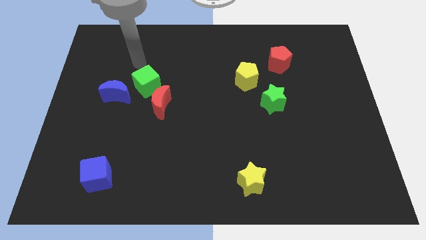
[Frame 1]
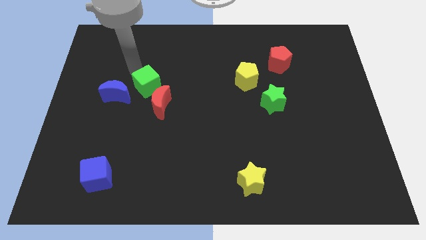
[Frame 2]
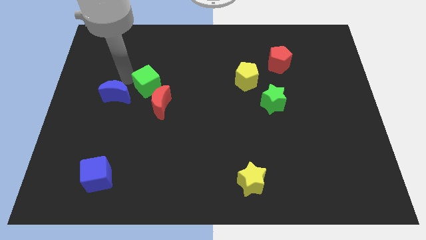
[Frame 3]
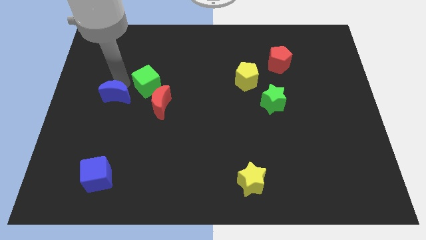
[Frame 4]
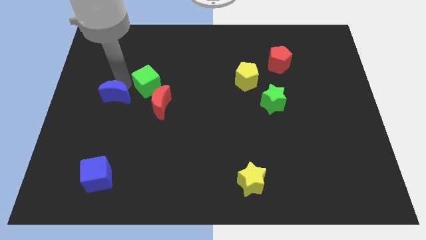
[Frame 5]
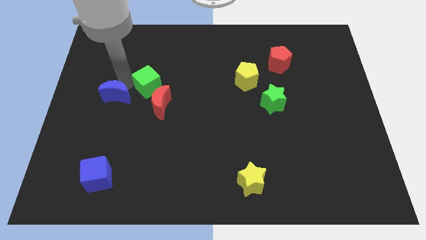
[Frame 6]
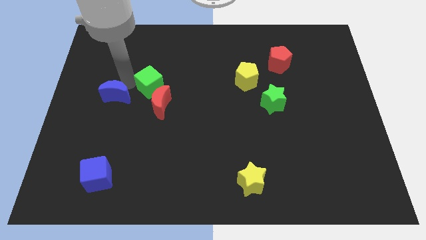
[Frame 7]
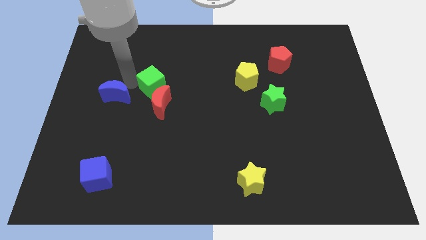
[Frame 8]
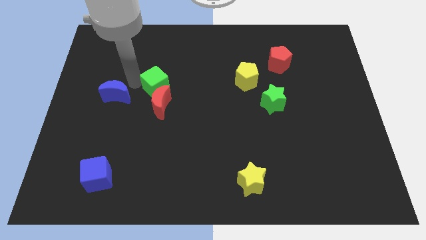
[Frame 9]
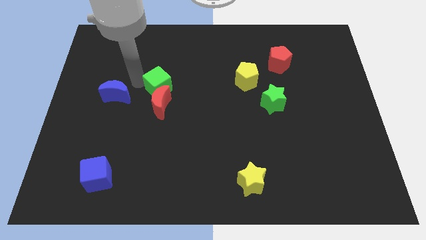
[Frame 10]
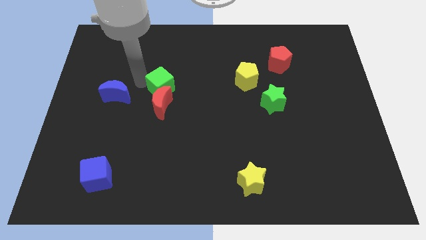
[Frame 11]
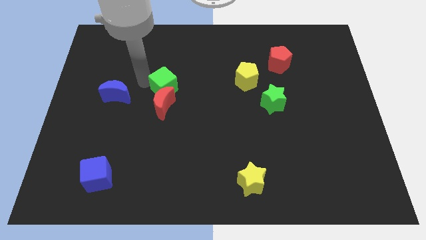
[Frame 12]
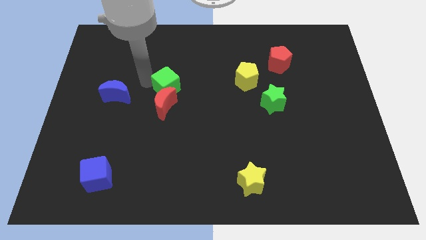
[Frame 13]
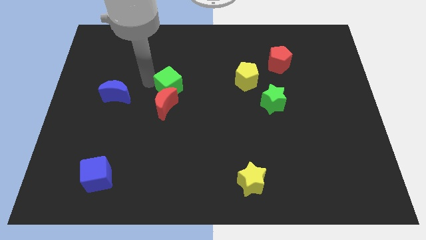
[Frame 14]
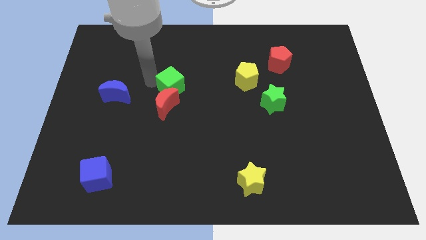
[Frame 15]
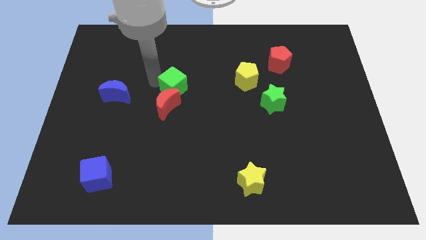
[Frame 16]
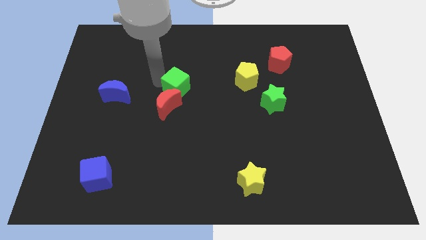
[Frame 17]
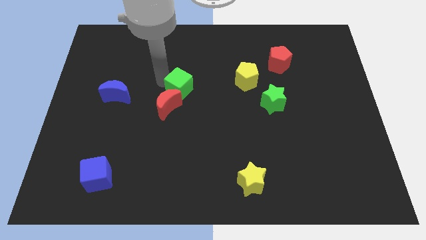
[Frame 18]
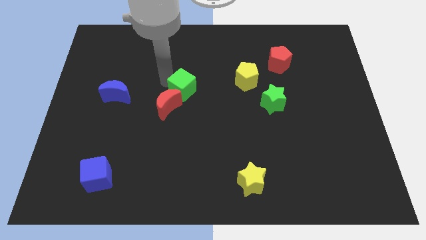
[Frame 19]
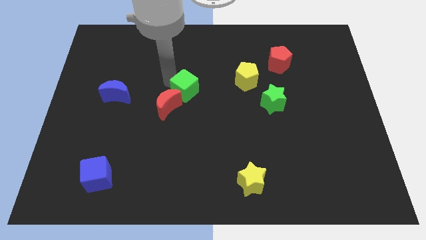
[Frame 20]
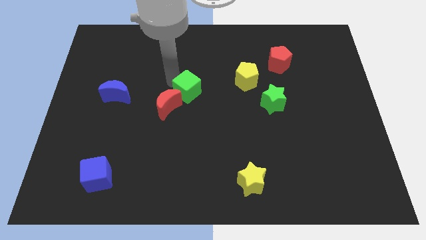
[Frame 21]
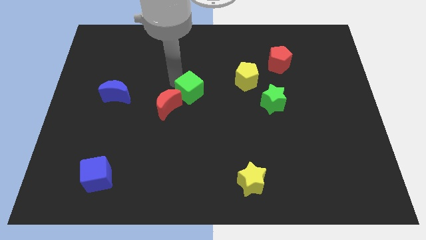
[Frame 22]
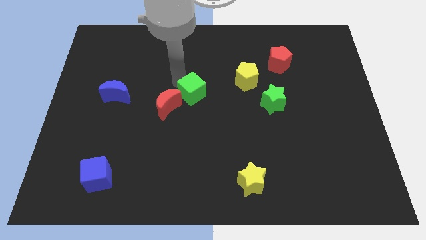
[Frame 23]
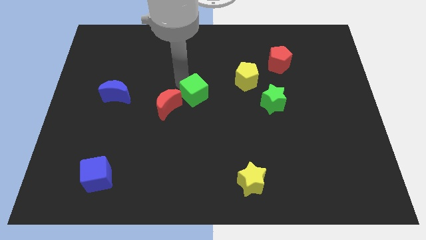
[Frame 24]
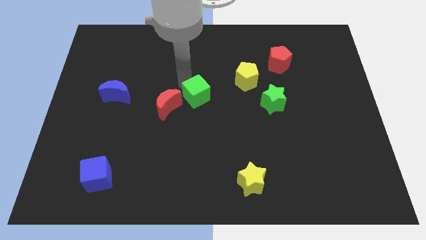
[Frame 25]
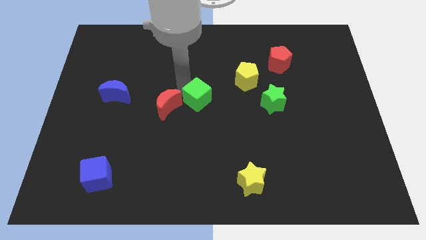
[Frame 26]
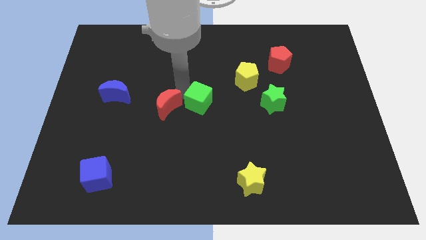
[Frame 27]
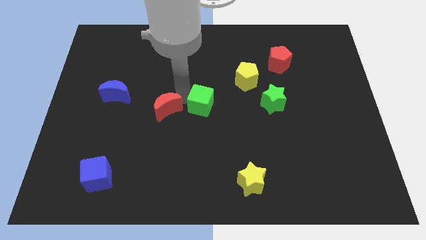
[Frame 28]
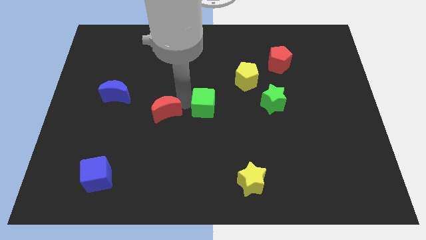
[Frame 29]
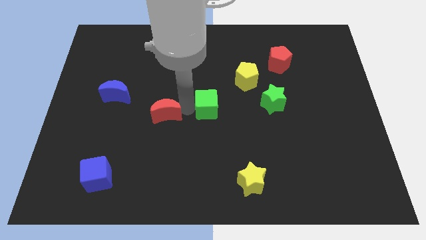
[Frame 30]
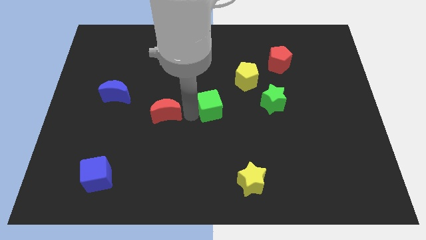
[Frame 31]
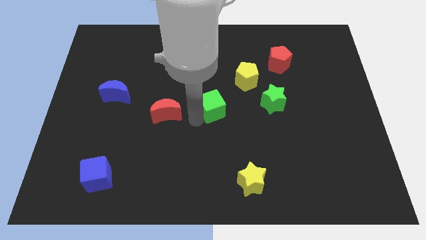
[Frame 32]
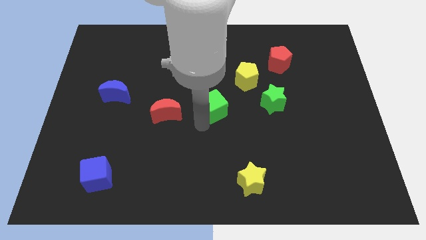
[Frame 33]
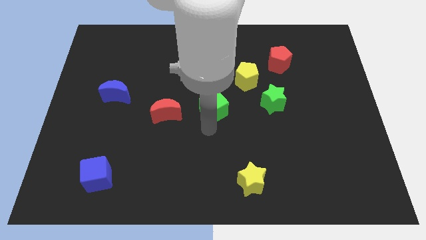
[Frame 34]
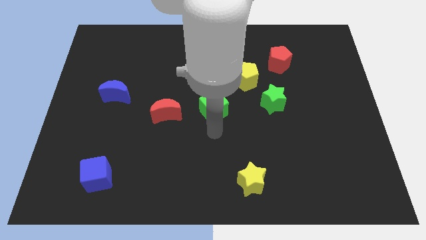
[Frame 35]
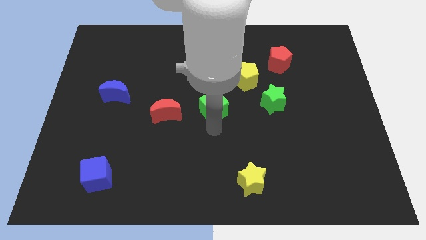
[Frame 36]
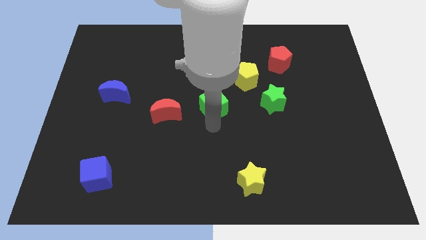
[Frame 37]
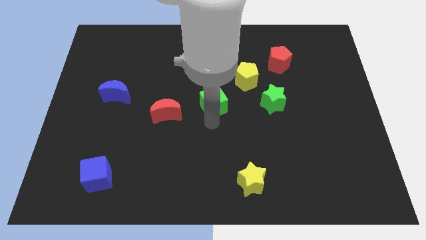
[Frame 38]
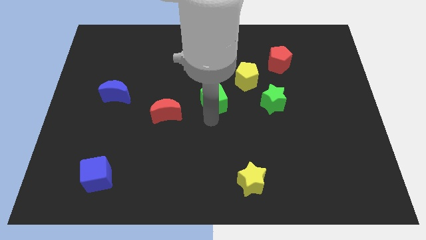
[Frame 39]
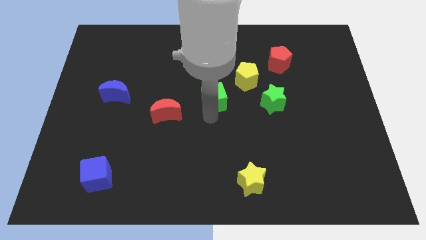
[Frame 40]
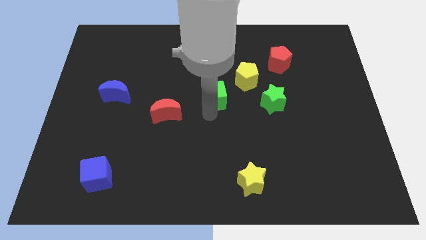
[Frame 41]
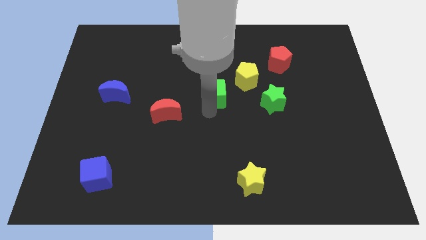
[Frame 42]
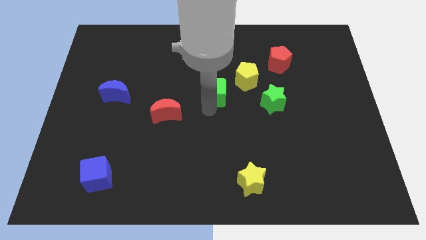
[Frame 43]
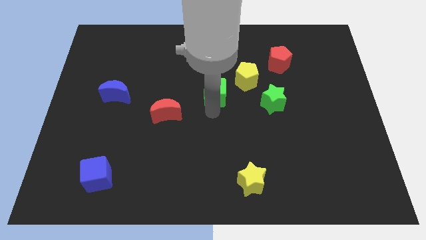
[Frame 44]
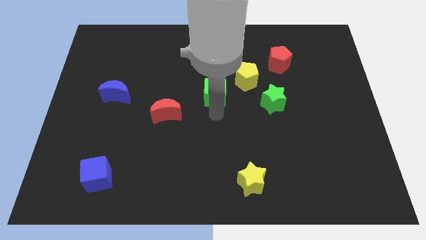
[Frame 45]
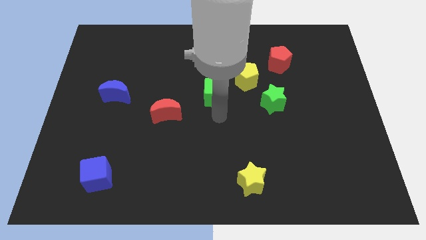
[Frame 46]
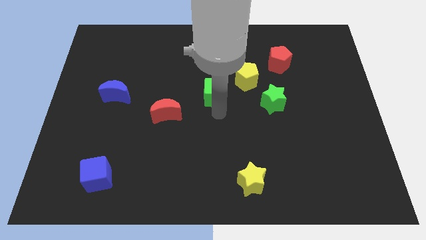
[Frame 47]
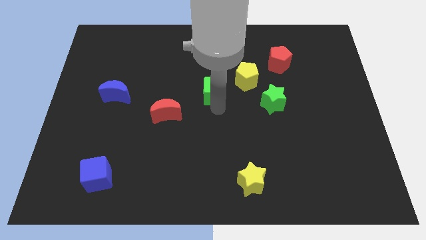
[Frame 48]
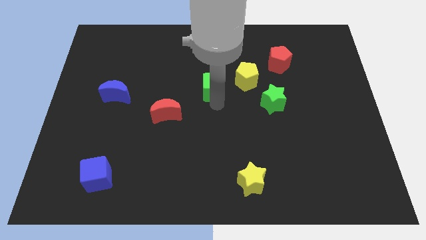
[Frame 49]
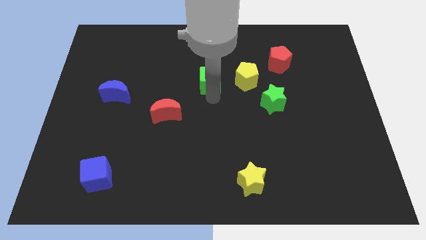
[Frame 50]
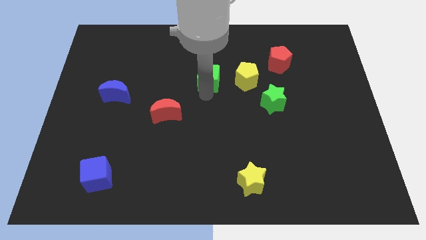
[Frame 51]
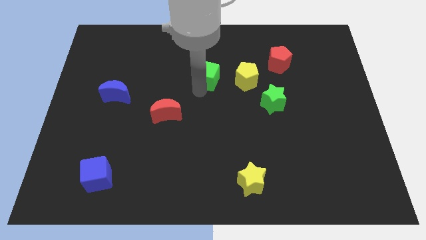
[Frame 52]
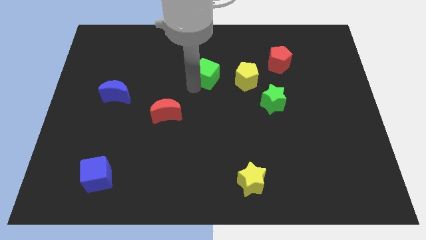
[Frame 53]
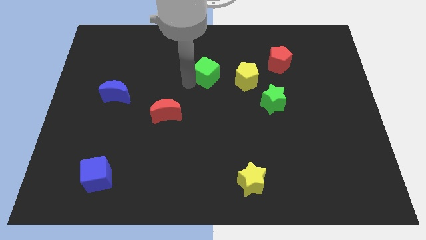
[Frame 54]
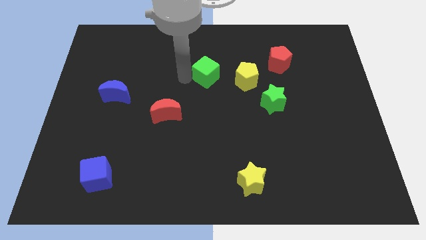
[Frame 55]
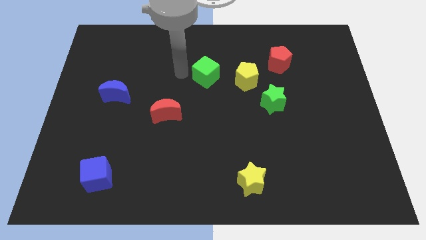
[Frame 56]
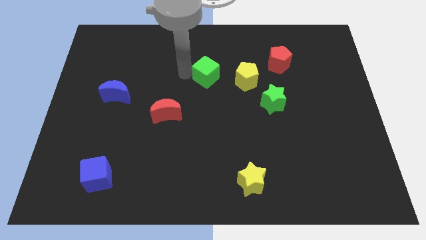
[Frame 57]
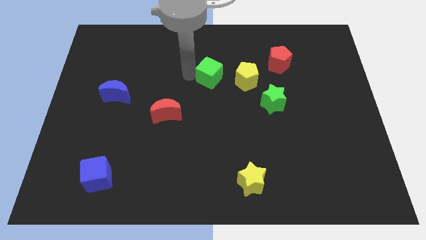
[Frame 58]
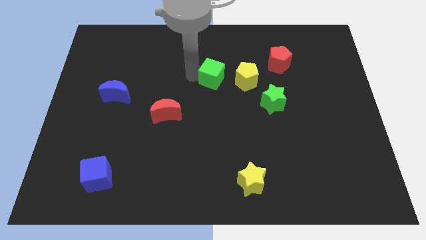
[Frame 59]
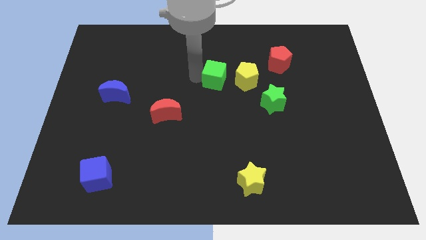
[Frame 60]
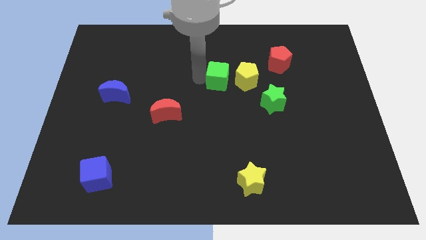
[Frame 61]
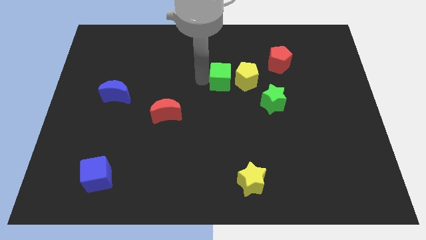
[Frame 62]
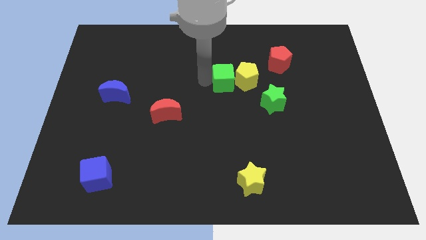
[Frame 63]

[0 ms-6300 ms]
put the green cube to the yellow pentagon

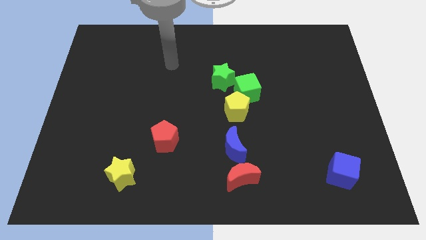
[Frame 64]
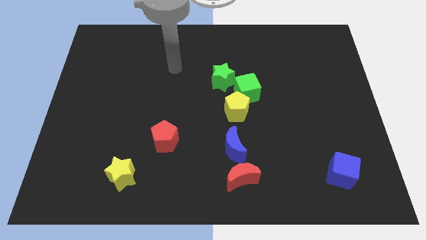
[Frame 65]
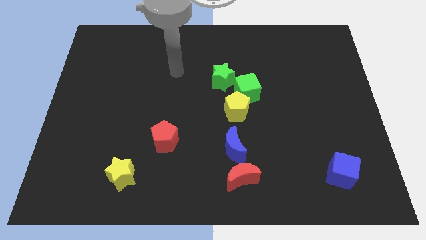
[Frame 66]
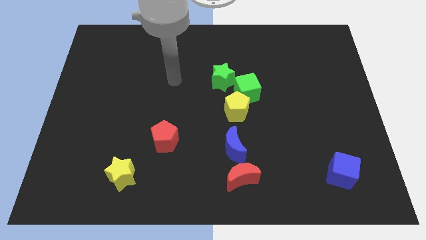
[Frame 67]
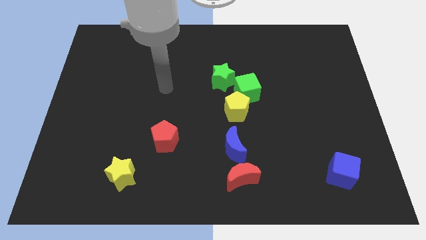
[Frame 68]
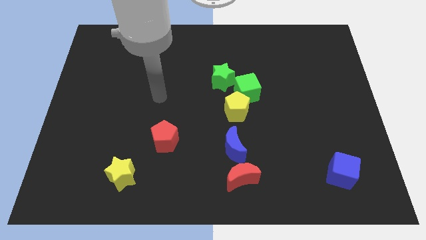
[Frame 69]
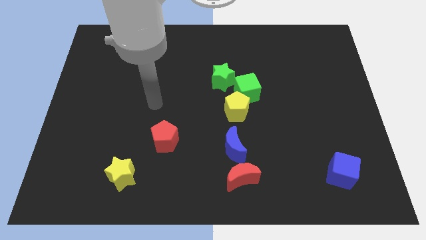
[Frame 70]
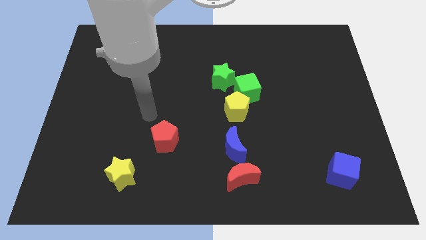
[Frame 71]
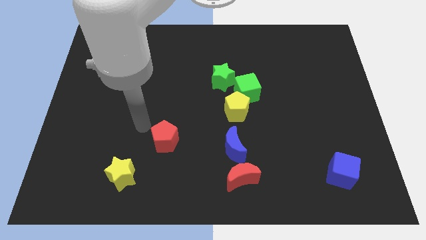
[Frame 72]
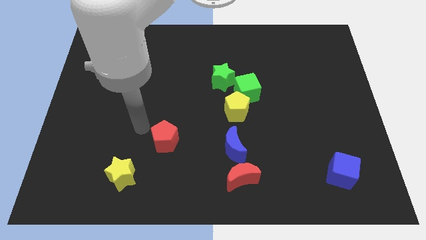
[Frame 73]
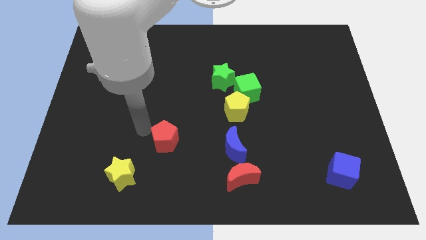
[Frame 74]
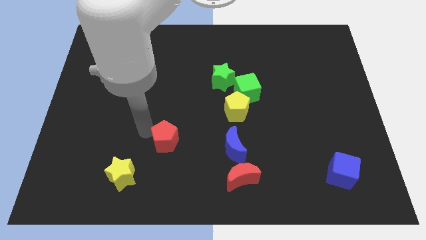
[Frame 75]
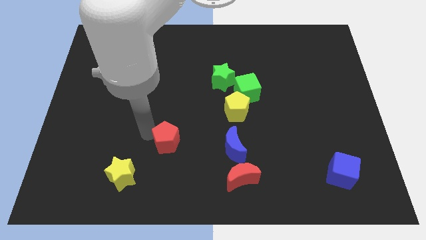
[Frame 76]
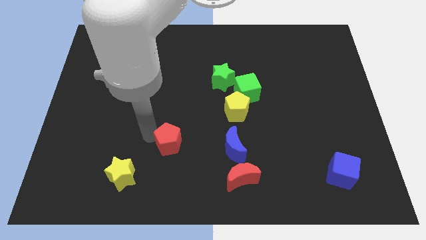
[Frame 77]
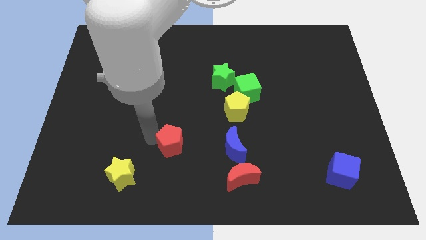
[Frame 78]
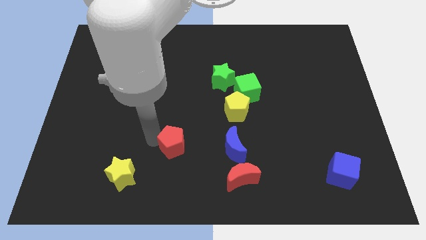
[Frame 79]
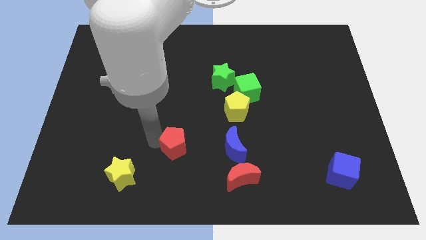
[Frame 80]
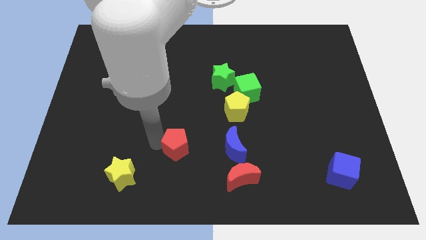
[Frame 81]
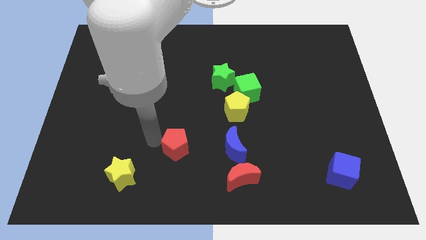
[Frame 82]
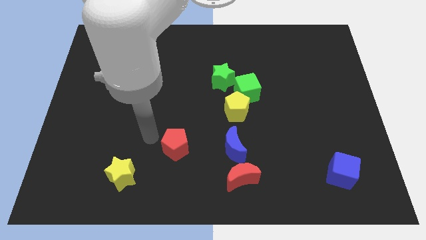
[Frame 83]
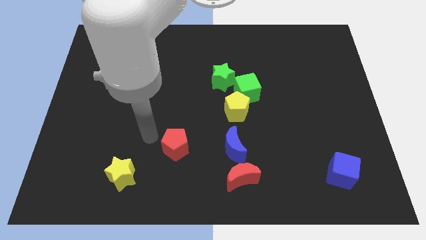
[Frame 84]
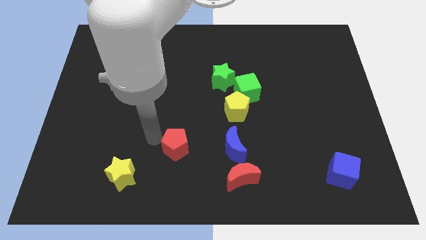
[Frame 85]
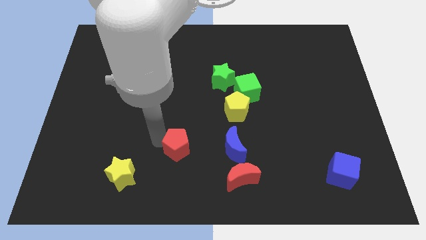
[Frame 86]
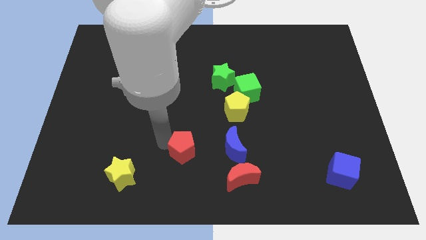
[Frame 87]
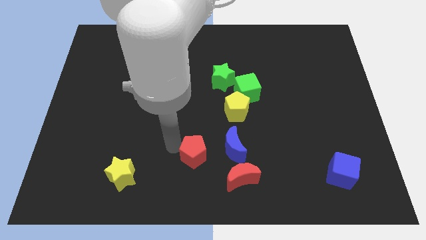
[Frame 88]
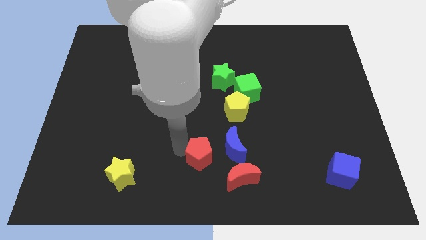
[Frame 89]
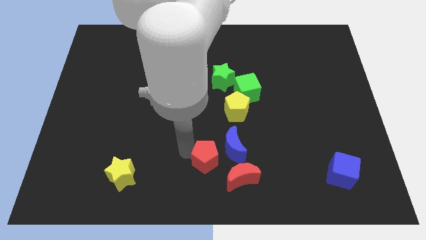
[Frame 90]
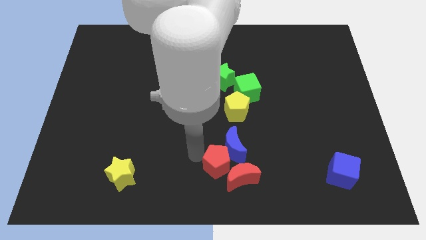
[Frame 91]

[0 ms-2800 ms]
put the red pentagon to the red moon
